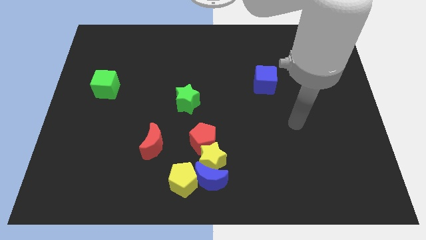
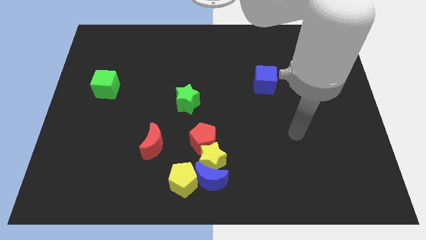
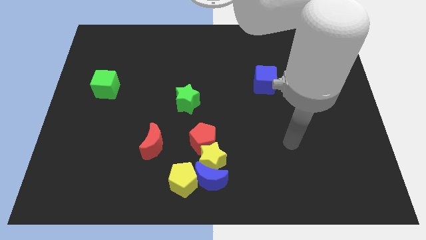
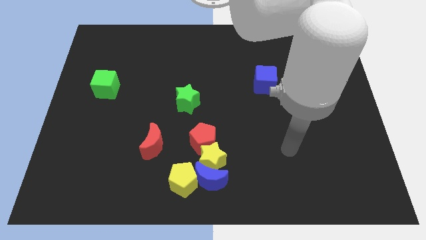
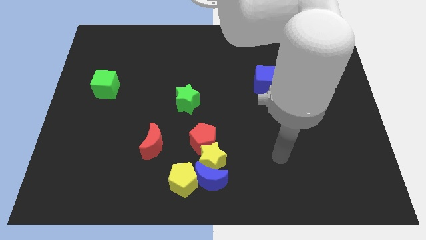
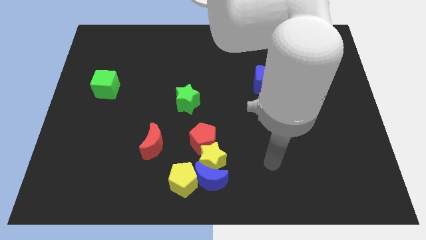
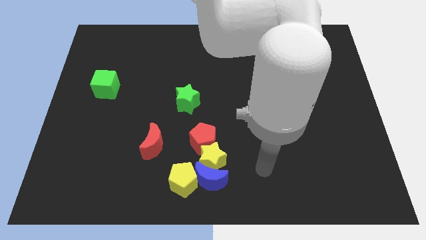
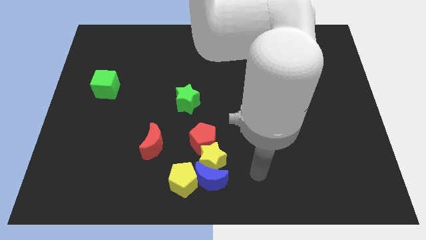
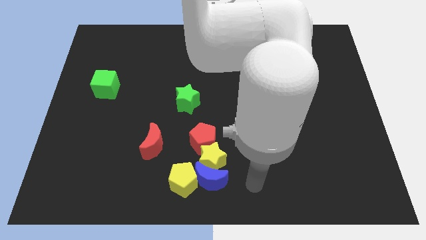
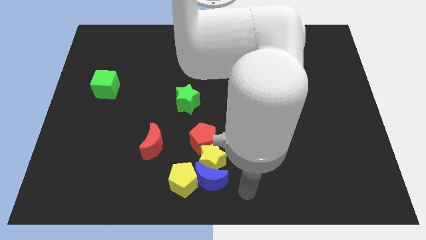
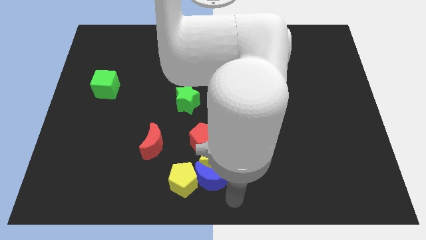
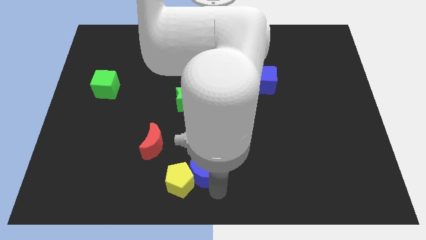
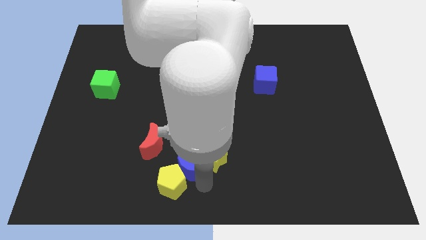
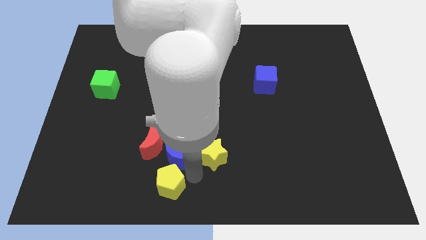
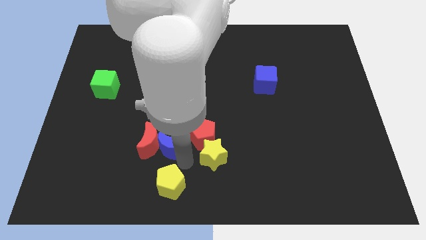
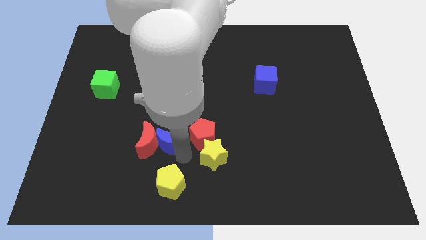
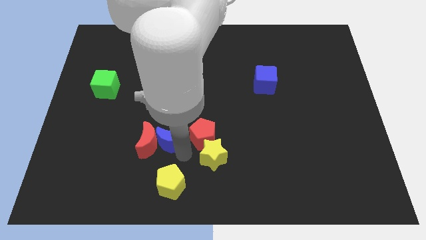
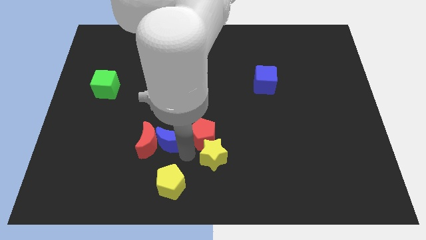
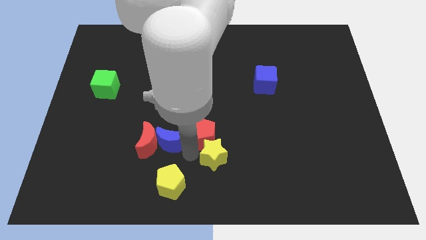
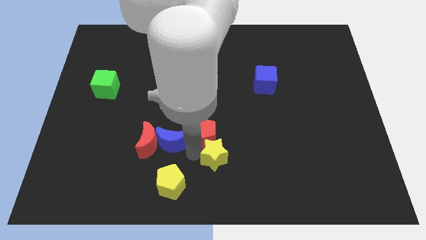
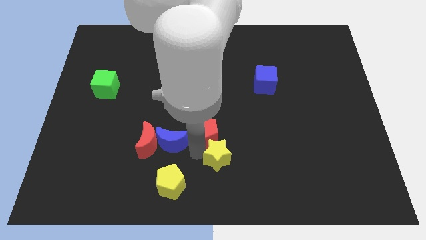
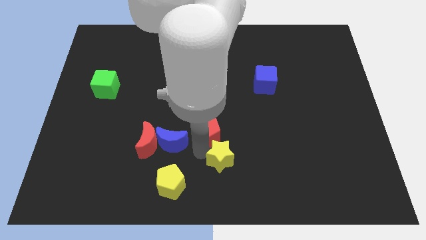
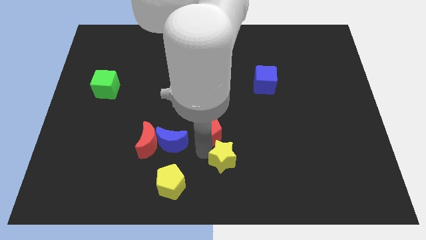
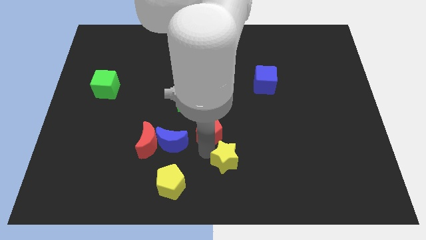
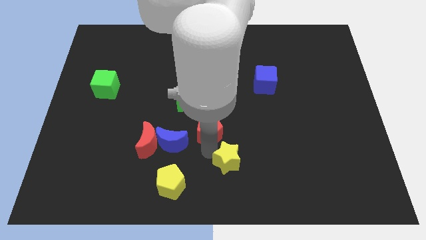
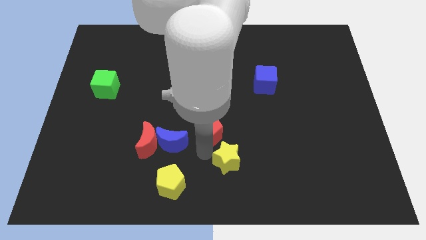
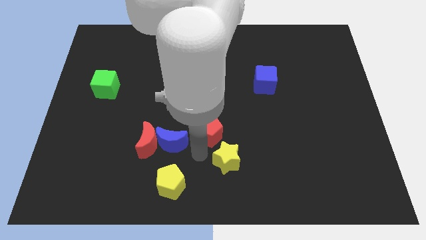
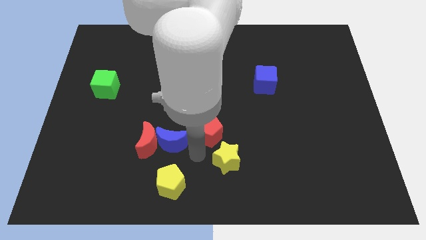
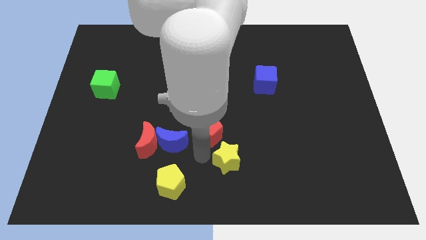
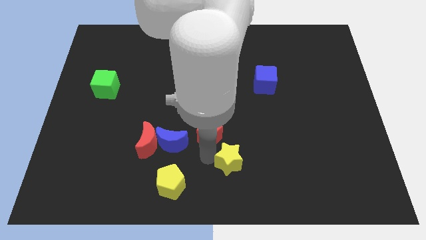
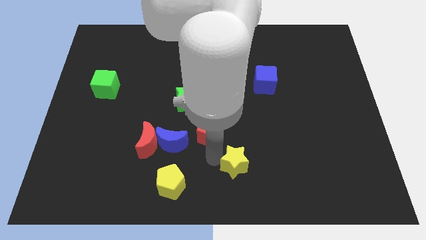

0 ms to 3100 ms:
pull the yellow star apart from the group of blocks

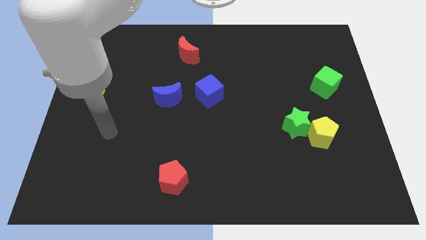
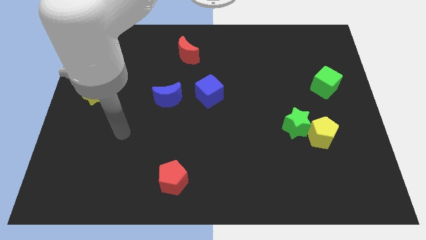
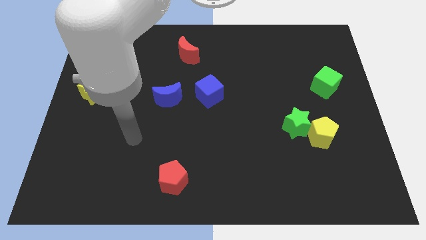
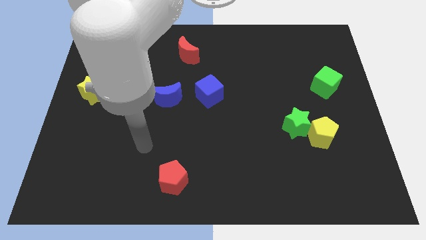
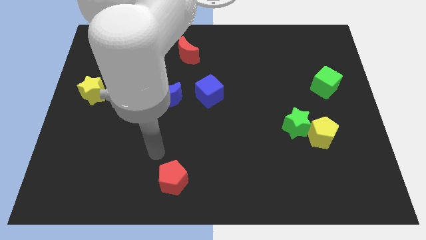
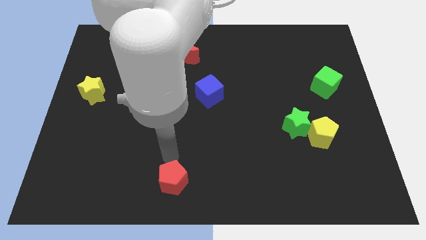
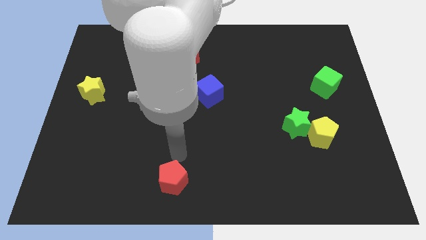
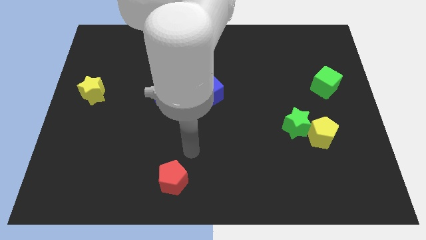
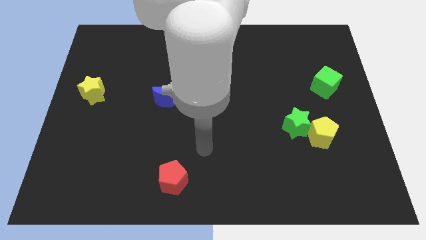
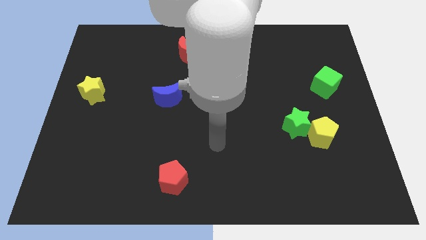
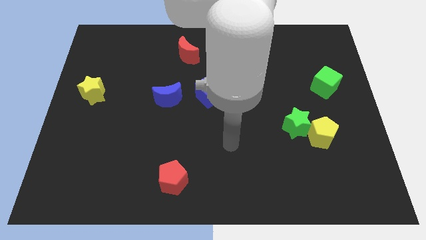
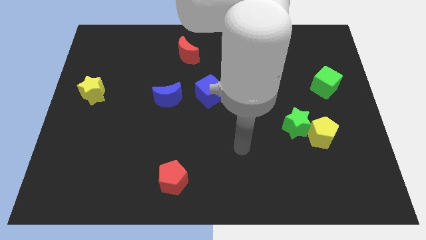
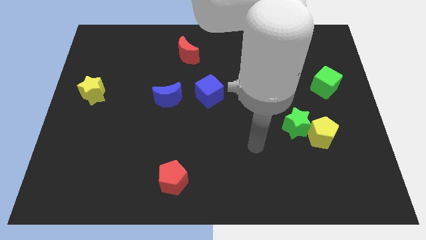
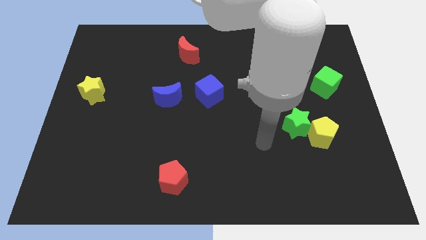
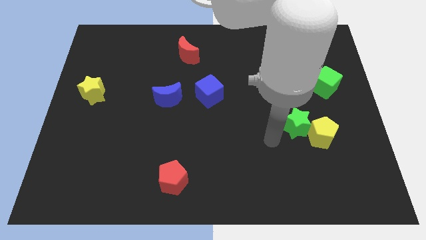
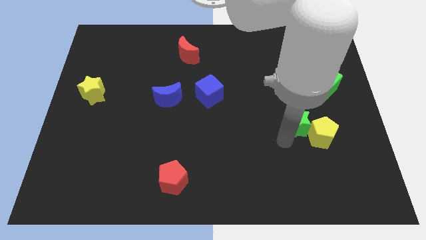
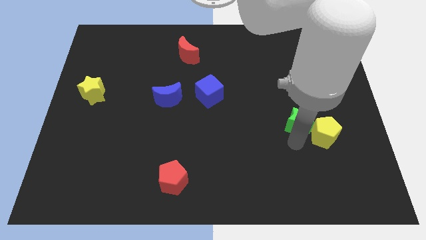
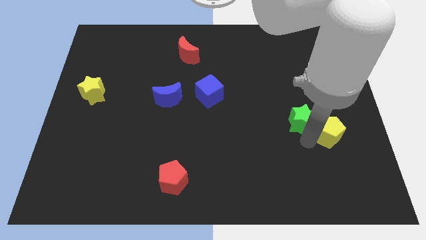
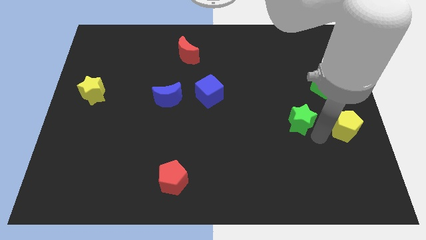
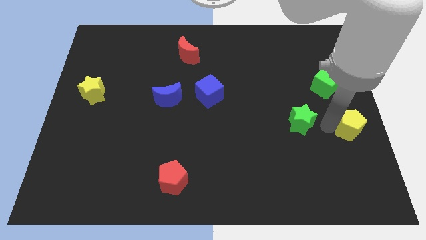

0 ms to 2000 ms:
pull the green star apart from the yellow pentagon

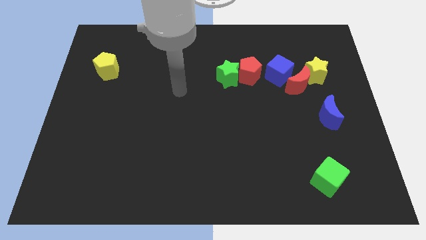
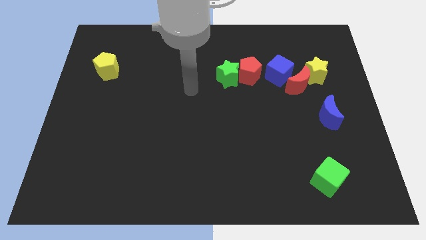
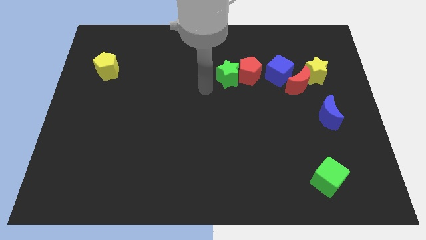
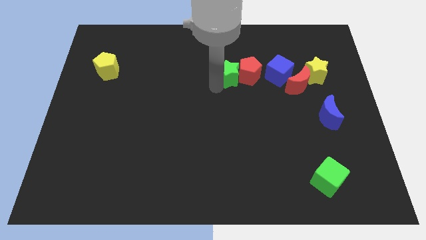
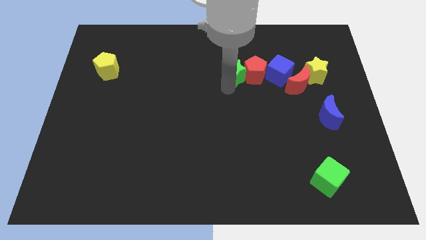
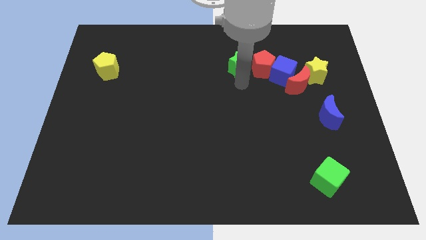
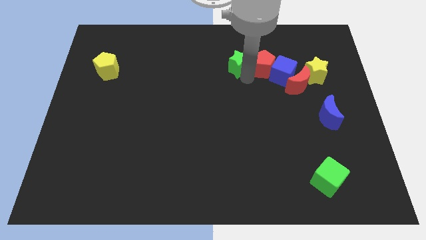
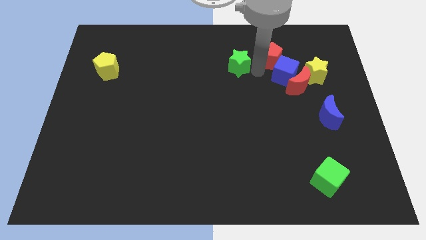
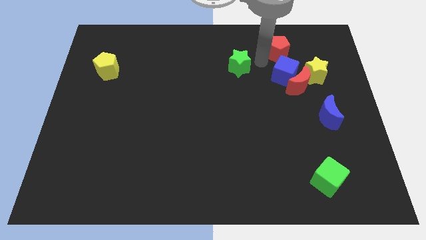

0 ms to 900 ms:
pull the green star apart from the red pentagon

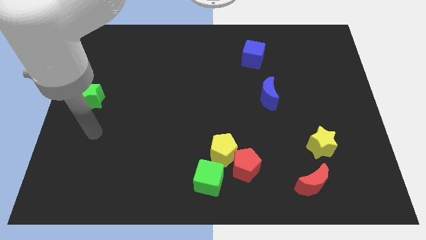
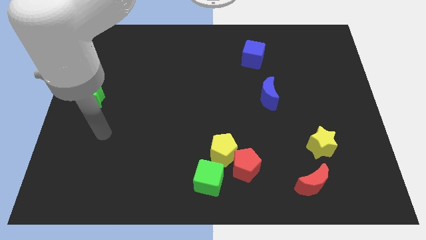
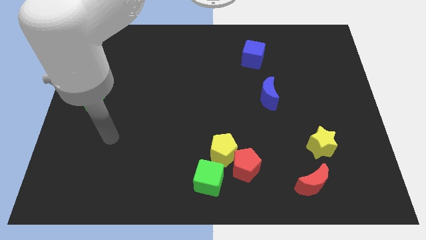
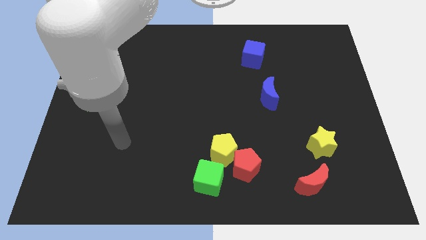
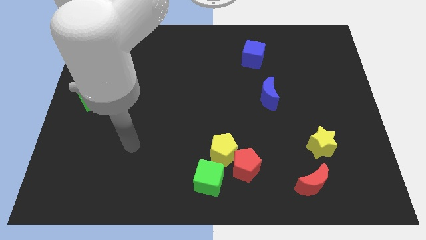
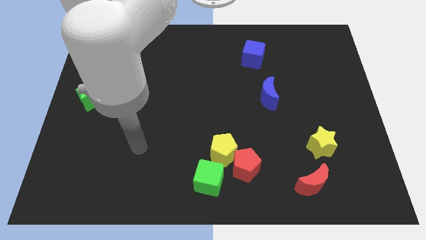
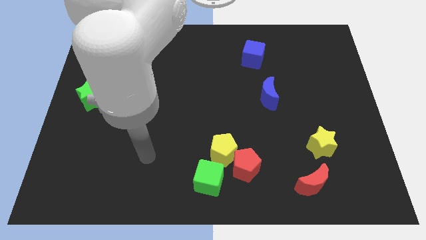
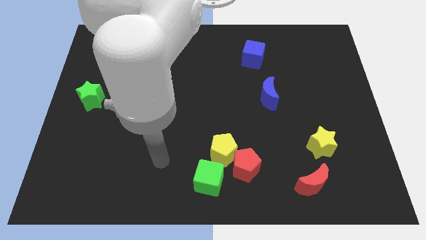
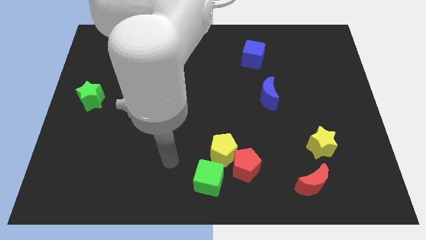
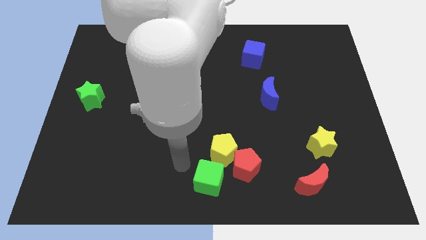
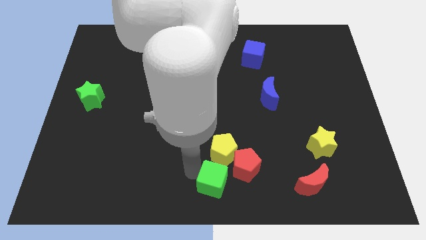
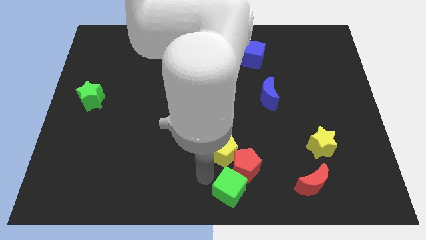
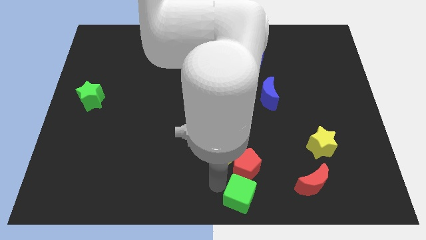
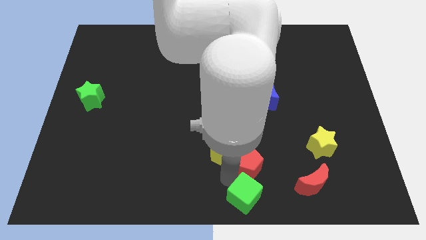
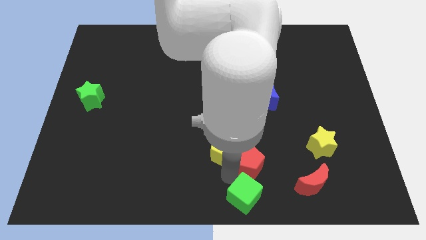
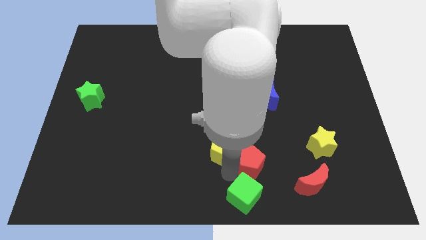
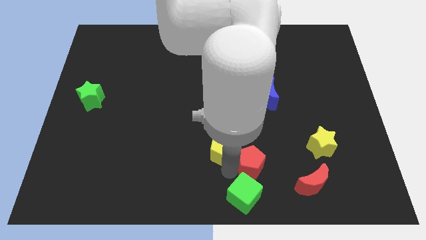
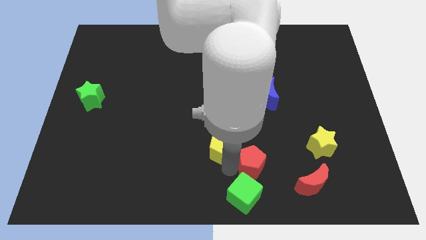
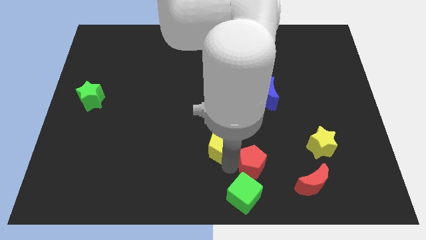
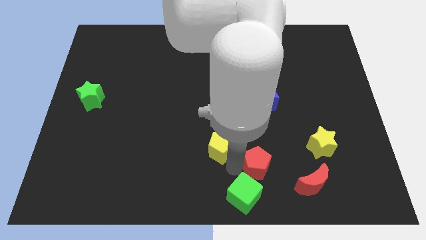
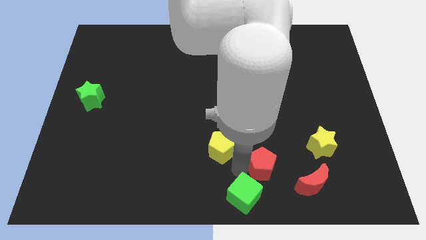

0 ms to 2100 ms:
pull the yellow pentagon apart from the red pentagon and green cube

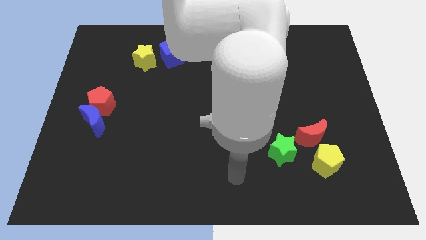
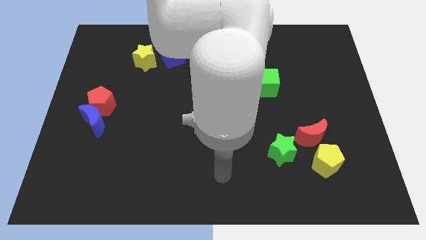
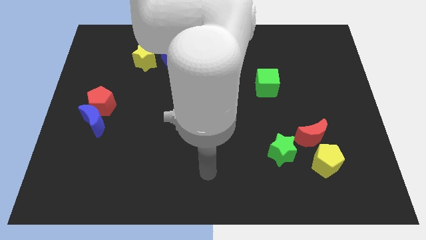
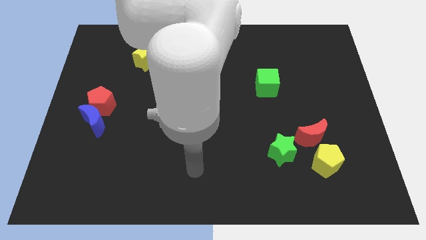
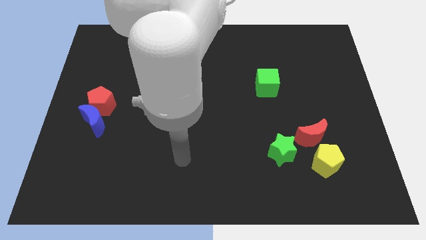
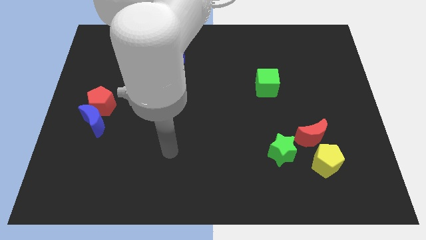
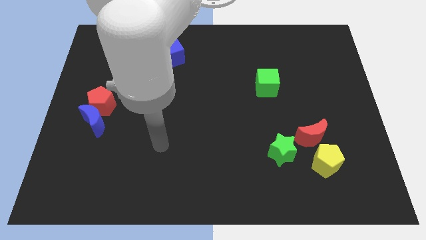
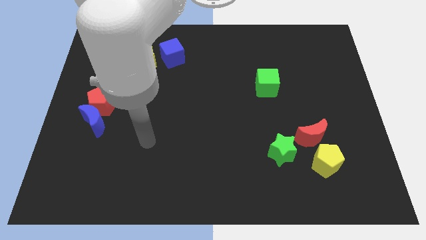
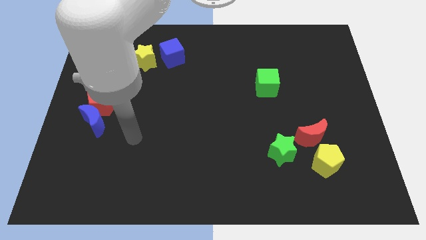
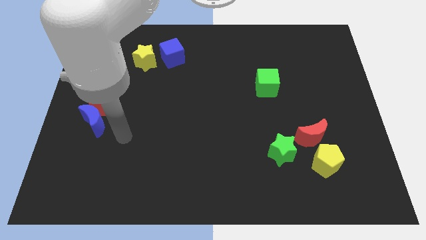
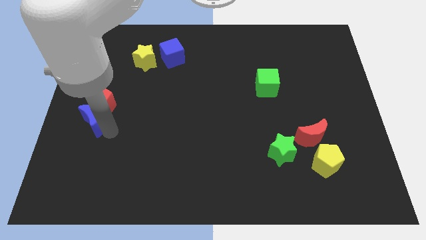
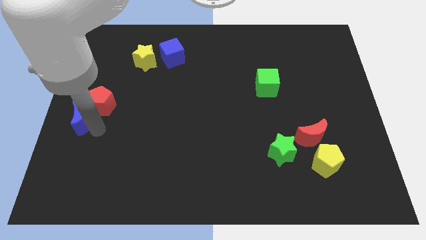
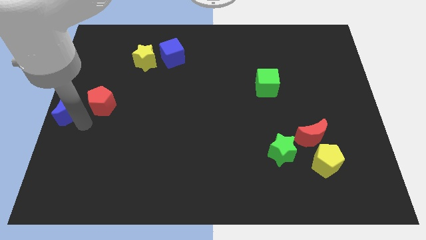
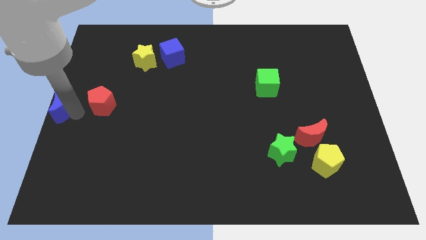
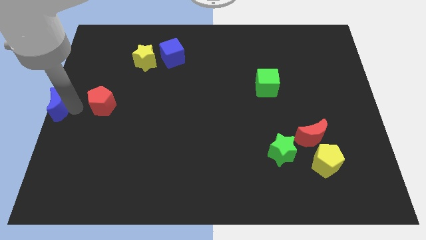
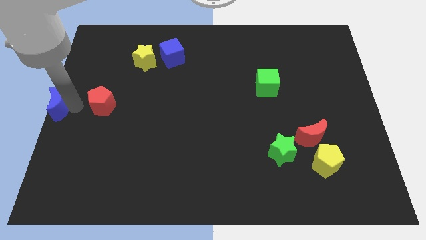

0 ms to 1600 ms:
separate the red pentagon from the blue moon
